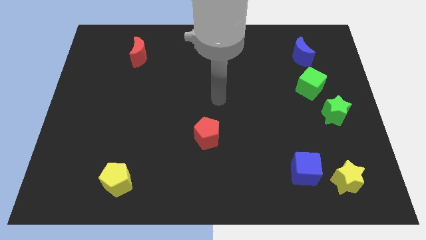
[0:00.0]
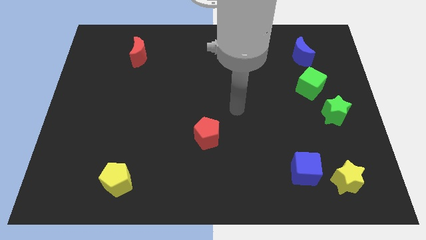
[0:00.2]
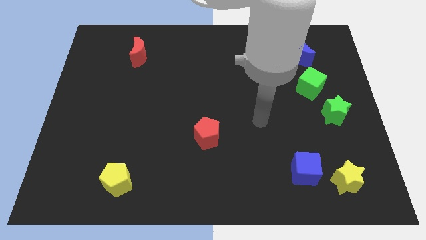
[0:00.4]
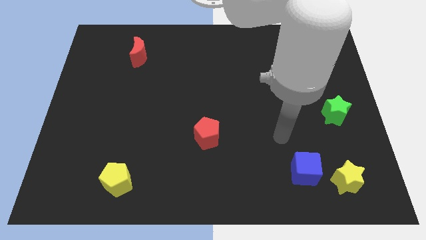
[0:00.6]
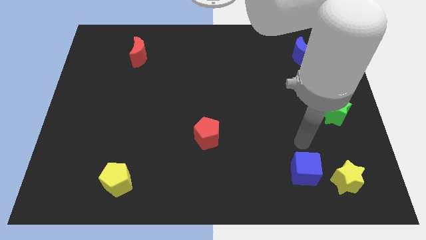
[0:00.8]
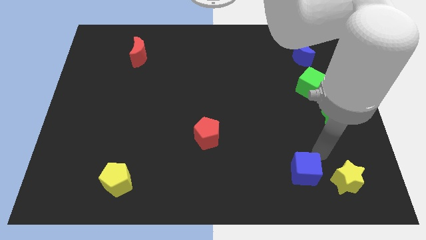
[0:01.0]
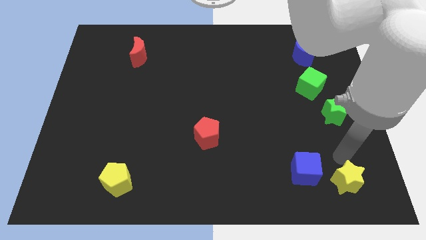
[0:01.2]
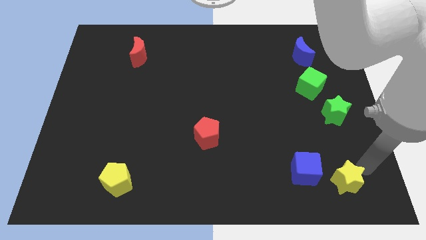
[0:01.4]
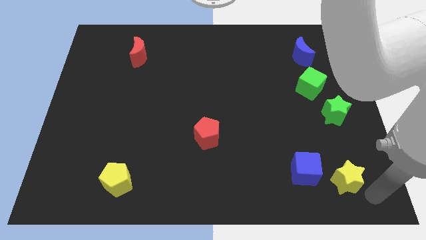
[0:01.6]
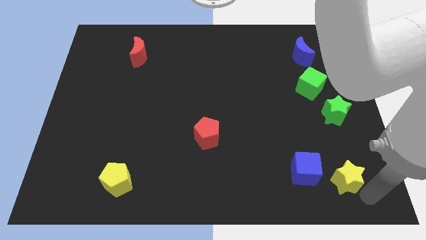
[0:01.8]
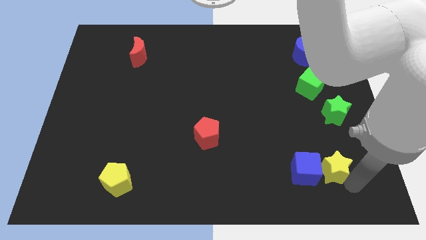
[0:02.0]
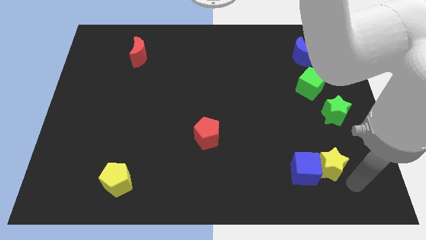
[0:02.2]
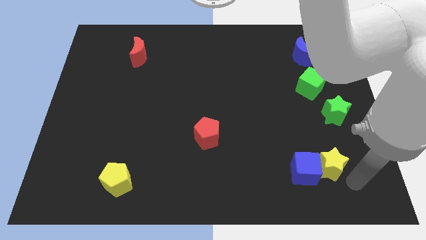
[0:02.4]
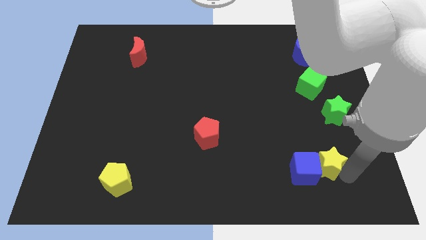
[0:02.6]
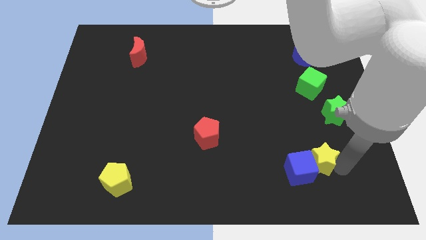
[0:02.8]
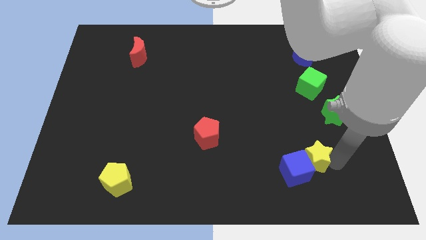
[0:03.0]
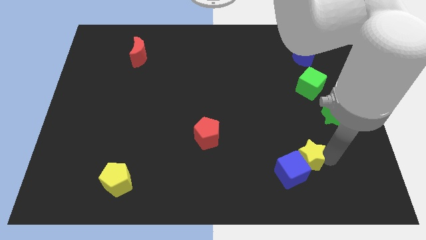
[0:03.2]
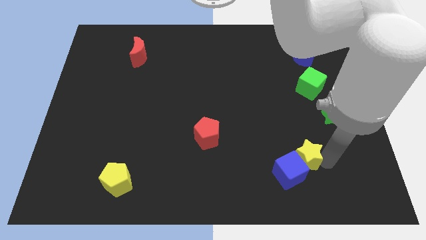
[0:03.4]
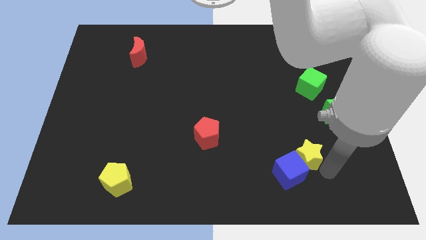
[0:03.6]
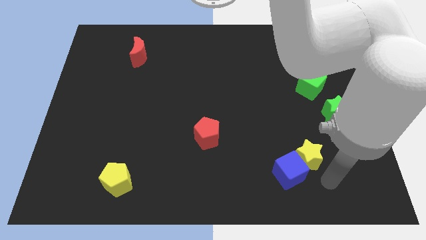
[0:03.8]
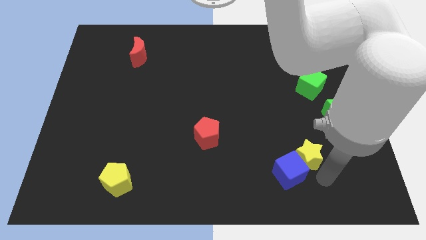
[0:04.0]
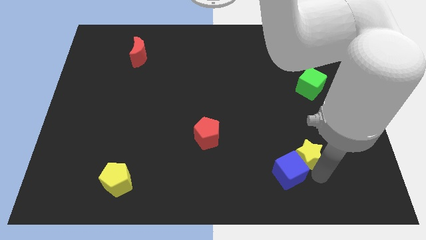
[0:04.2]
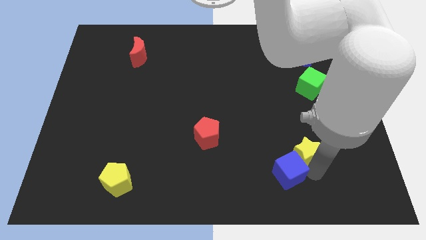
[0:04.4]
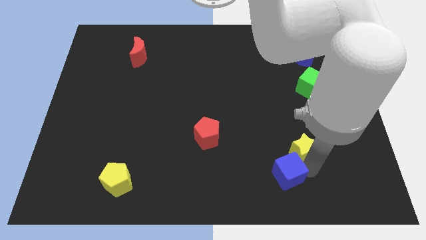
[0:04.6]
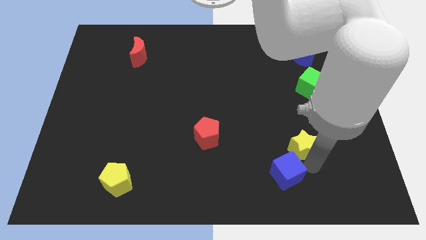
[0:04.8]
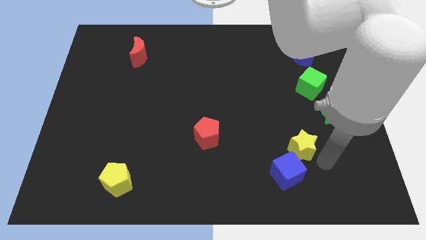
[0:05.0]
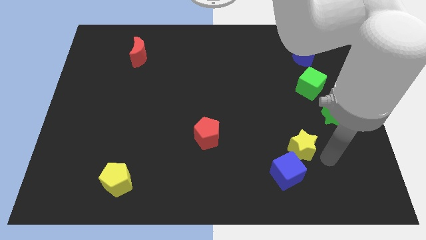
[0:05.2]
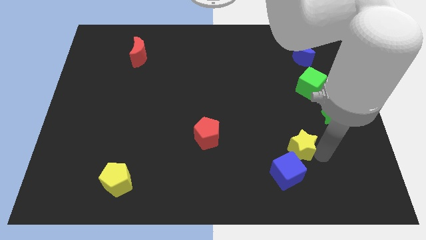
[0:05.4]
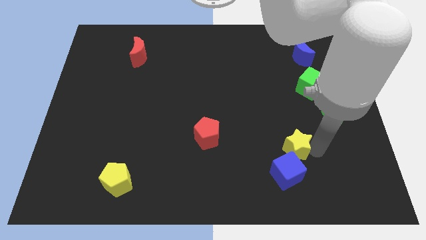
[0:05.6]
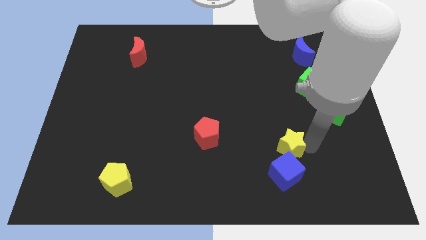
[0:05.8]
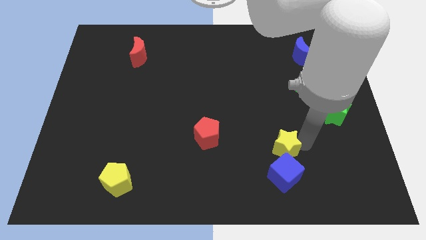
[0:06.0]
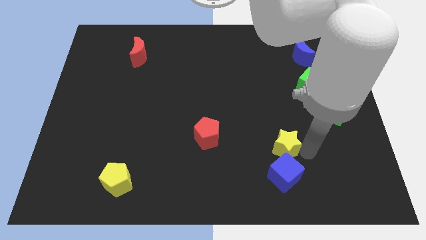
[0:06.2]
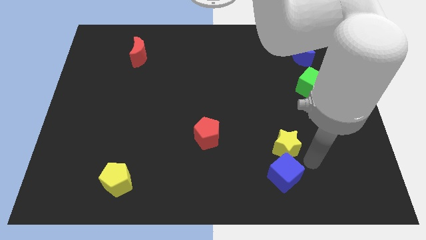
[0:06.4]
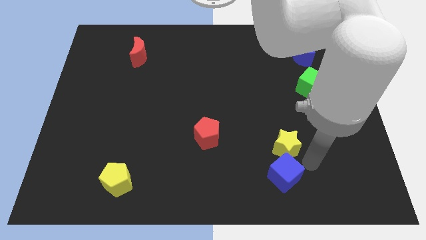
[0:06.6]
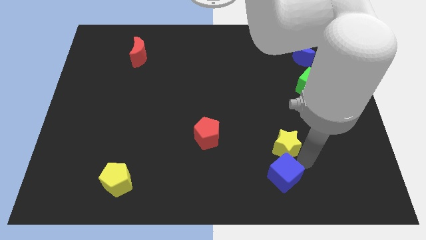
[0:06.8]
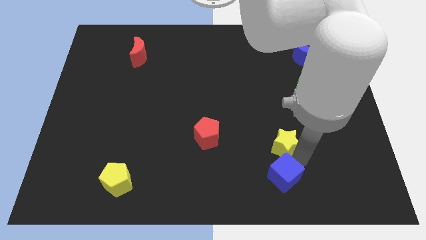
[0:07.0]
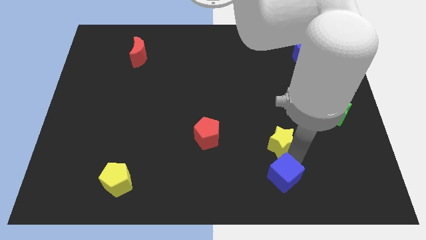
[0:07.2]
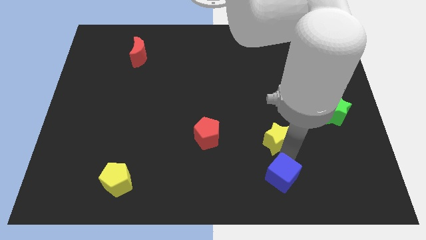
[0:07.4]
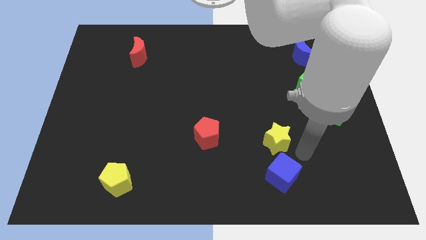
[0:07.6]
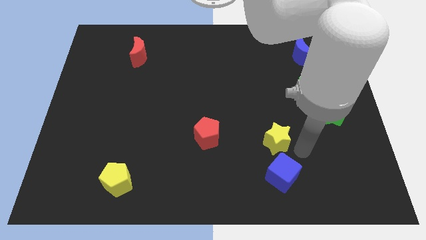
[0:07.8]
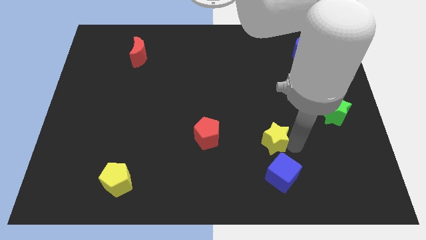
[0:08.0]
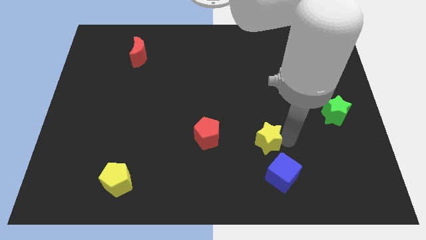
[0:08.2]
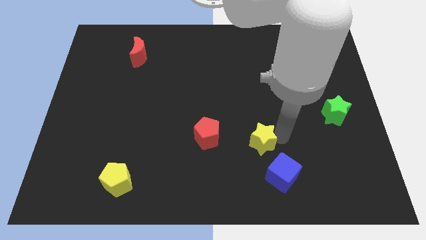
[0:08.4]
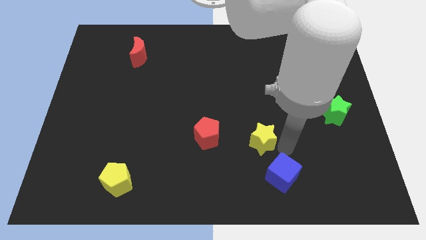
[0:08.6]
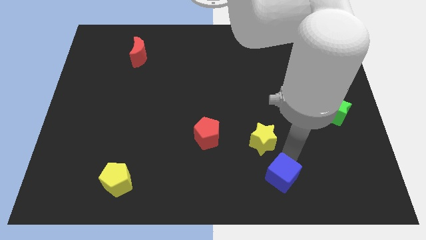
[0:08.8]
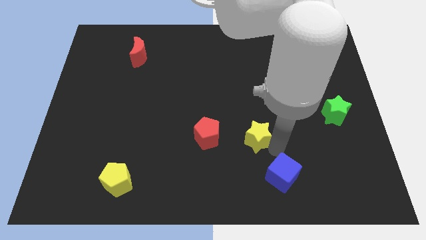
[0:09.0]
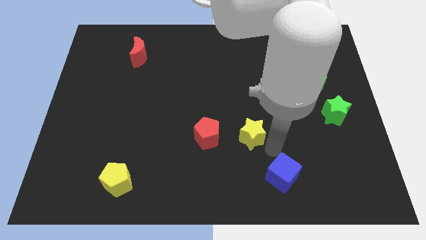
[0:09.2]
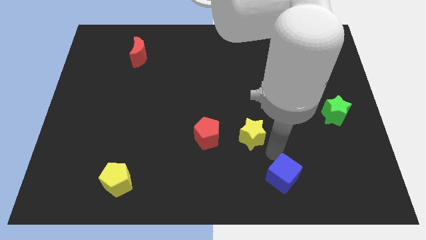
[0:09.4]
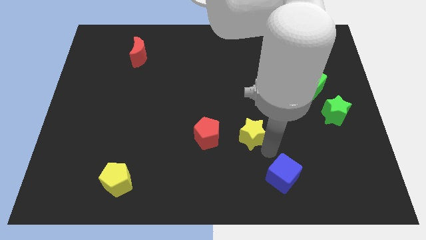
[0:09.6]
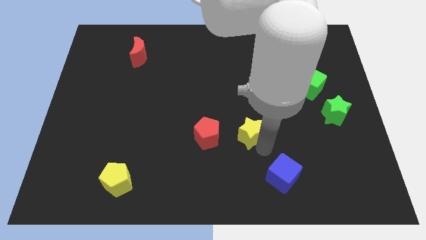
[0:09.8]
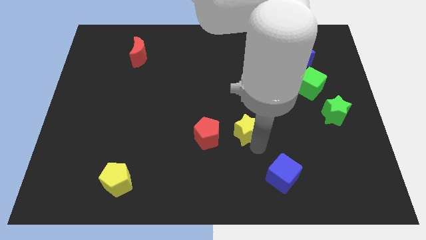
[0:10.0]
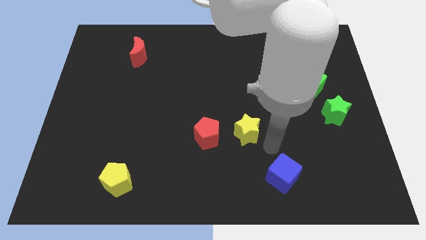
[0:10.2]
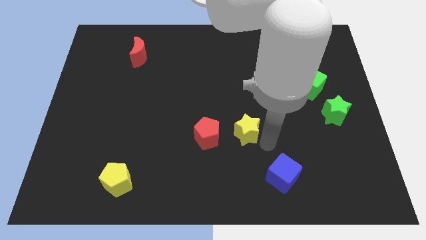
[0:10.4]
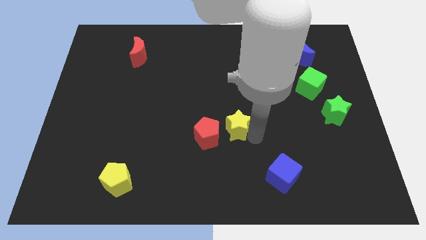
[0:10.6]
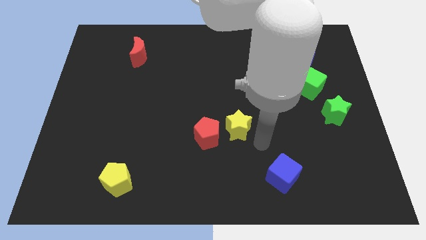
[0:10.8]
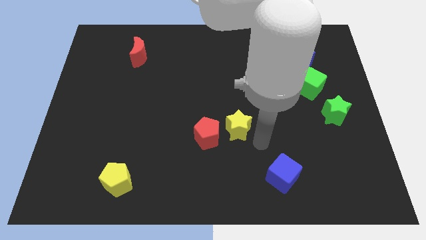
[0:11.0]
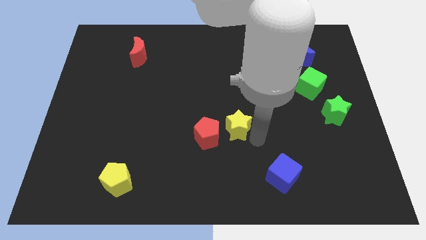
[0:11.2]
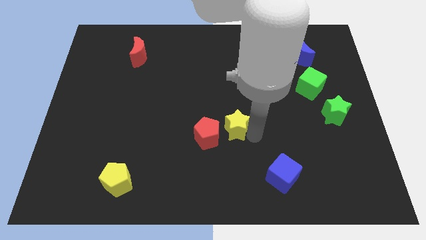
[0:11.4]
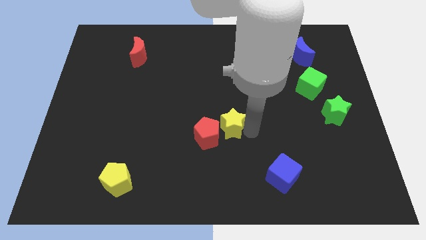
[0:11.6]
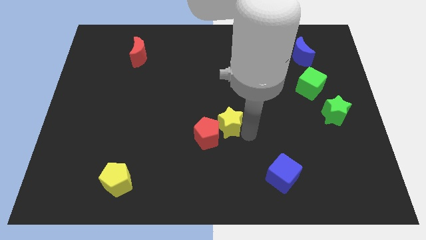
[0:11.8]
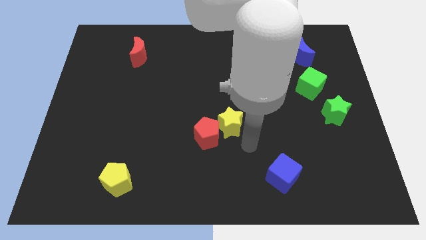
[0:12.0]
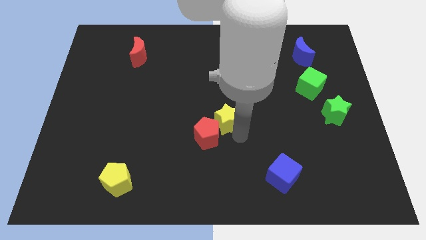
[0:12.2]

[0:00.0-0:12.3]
push the yellow star to the top side of the red pentagon

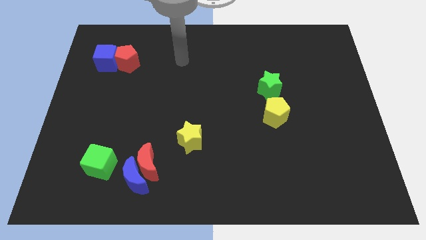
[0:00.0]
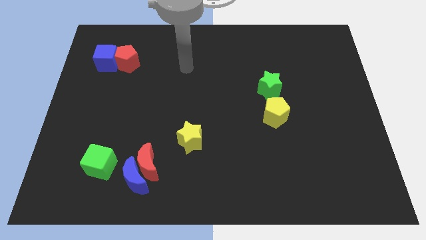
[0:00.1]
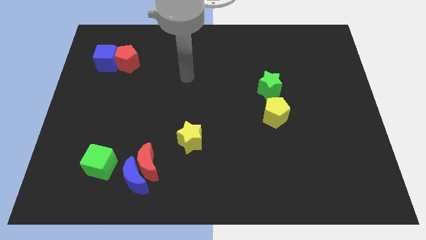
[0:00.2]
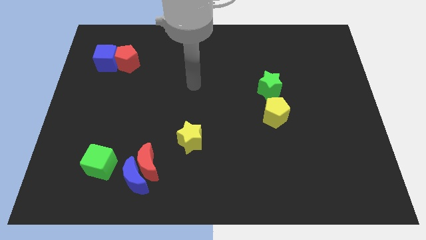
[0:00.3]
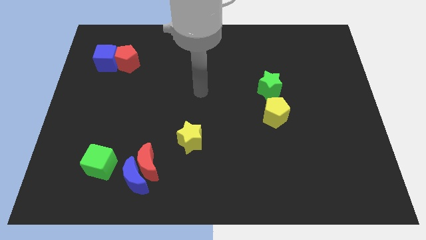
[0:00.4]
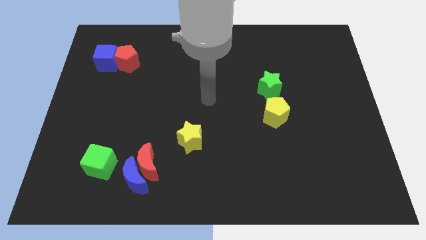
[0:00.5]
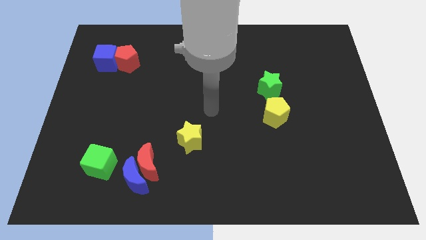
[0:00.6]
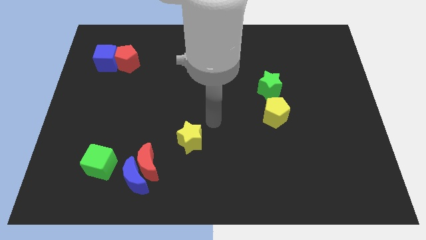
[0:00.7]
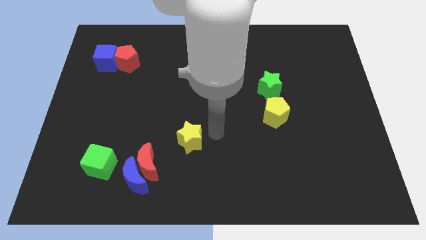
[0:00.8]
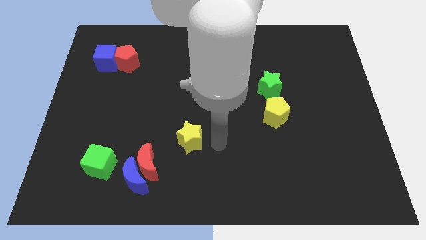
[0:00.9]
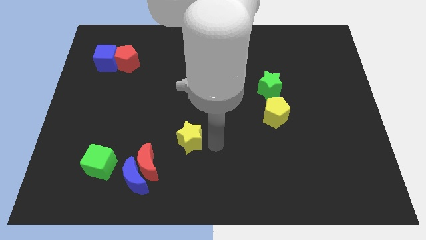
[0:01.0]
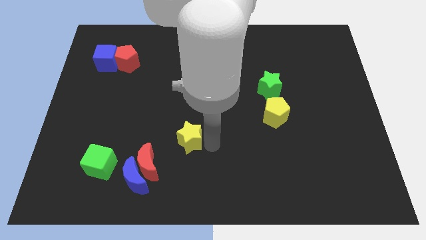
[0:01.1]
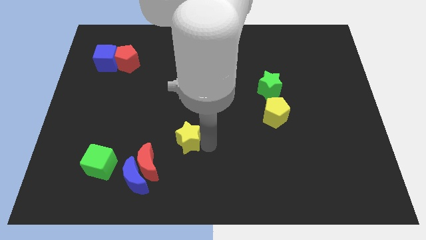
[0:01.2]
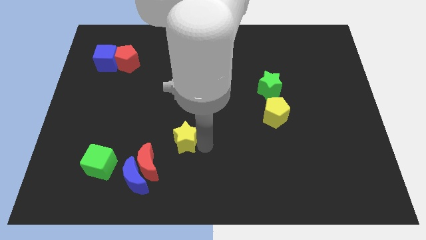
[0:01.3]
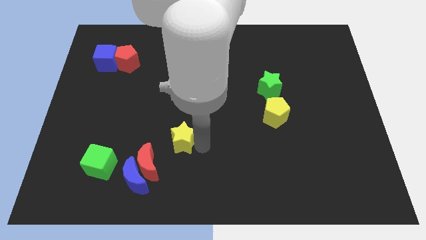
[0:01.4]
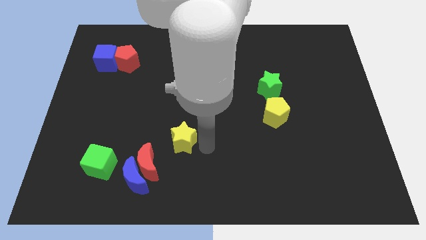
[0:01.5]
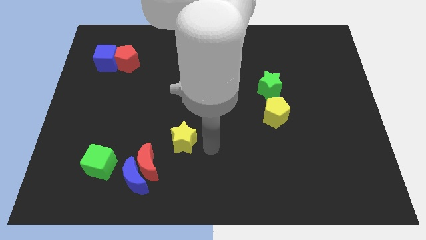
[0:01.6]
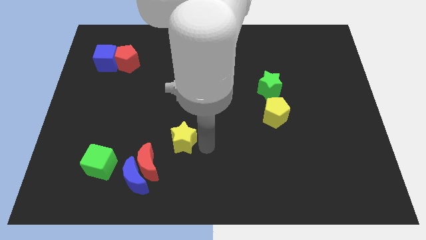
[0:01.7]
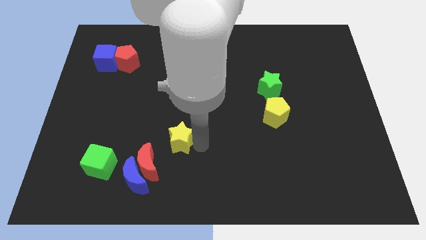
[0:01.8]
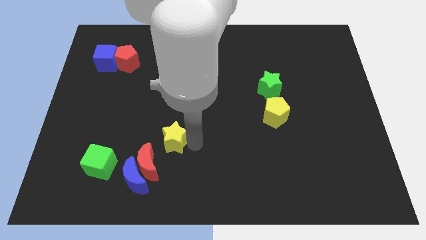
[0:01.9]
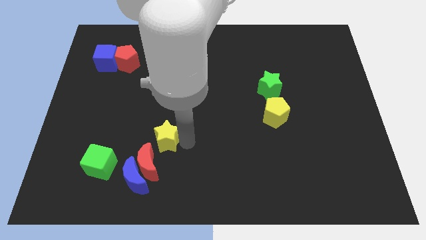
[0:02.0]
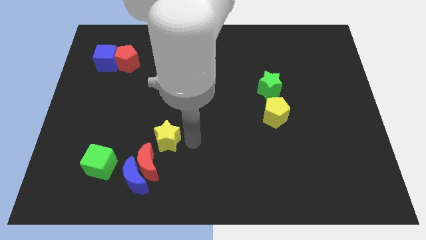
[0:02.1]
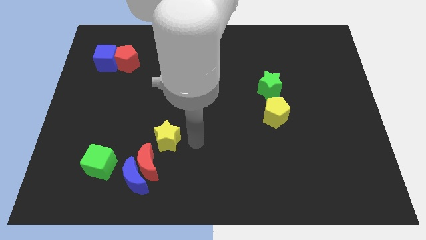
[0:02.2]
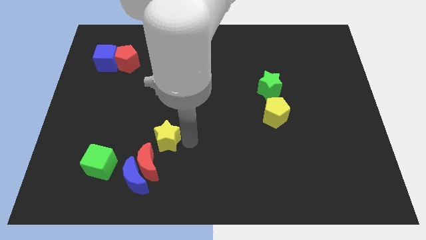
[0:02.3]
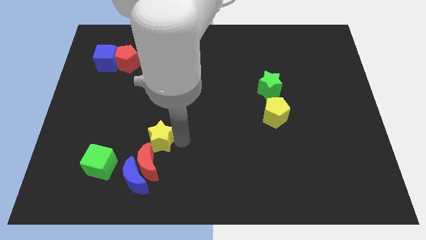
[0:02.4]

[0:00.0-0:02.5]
push the yellow star to the top of the blue moon
